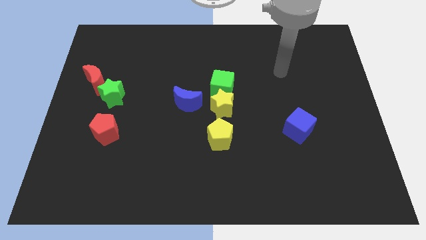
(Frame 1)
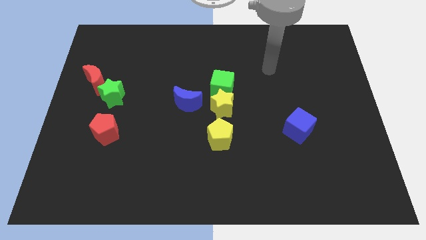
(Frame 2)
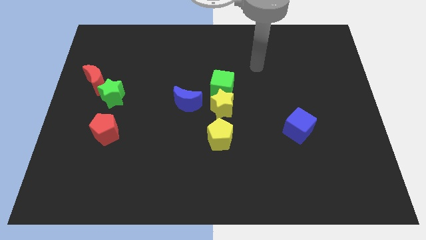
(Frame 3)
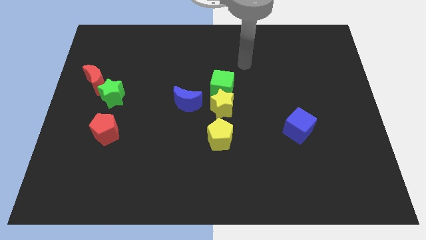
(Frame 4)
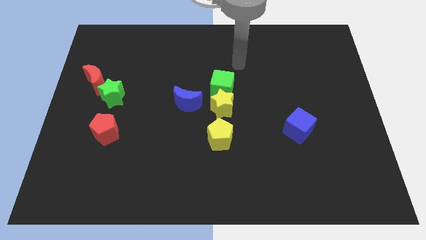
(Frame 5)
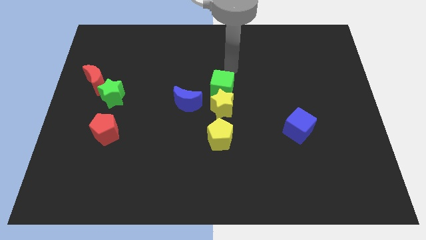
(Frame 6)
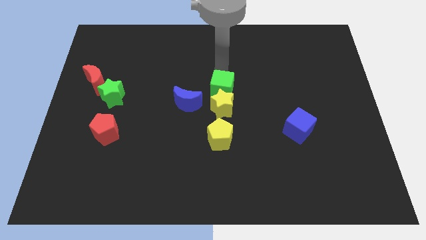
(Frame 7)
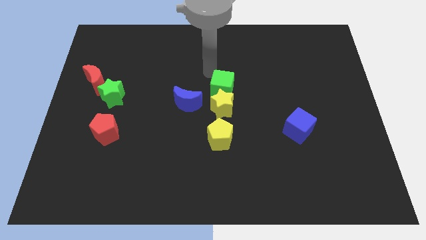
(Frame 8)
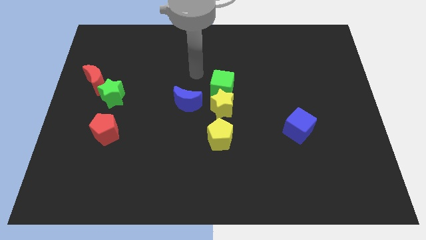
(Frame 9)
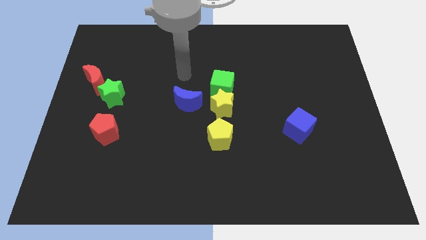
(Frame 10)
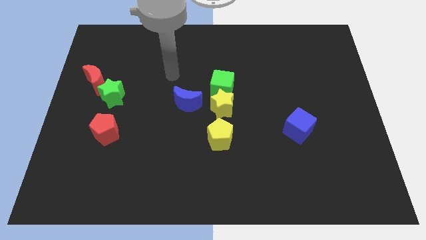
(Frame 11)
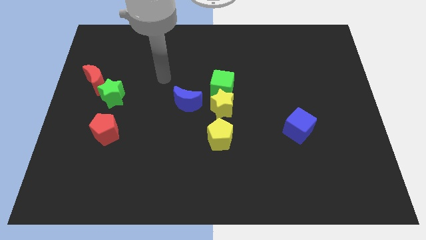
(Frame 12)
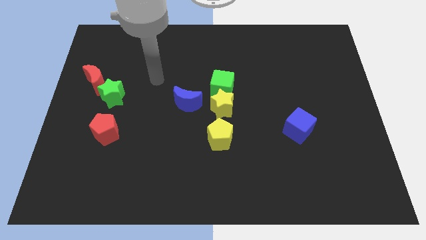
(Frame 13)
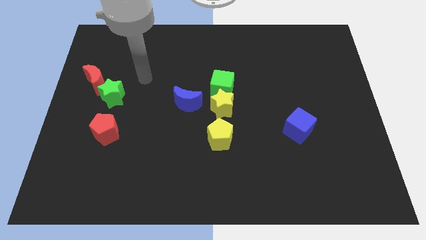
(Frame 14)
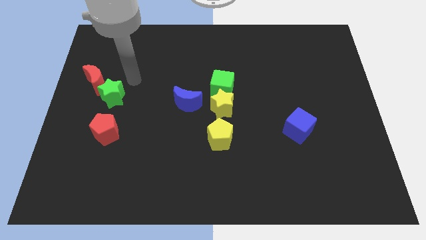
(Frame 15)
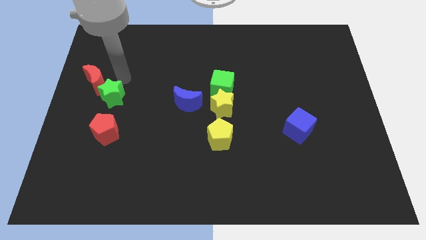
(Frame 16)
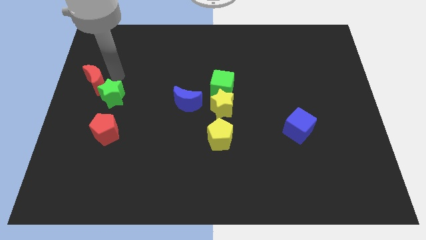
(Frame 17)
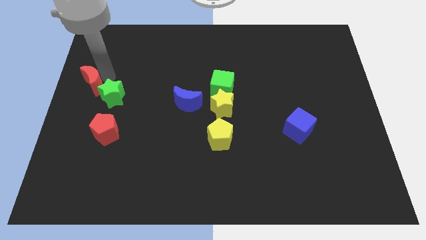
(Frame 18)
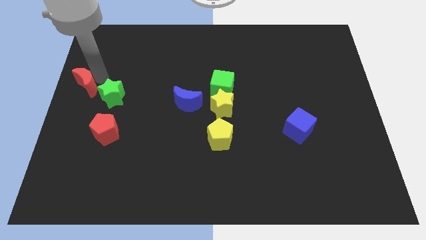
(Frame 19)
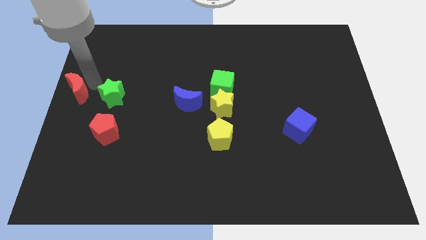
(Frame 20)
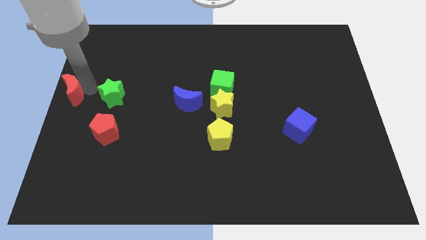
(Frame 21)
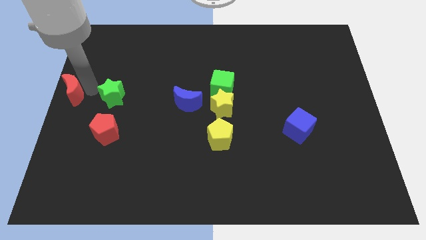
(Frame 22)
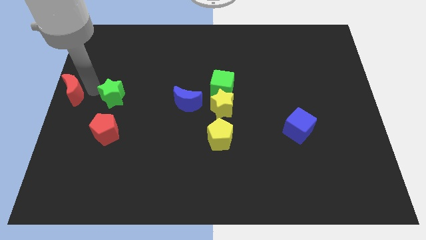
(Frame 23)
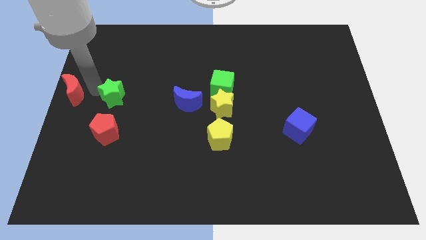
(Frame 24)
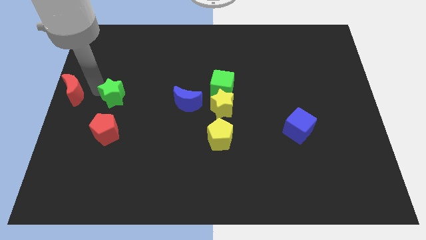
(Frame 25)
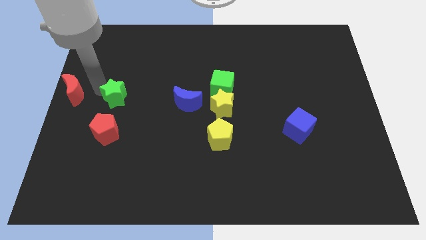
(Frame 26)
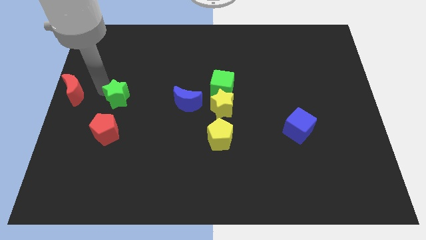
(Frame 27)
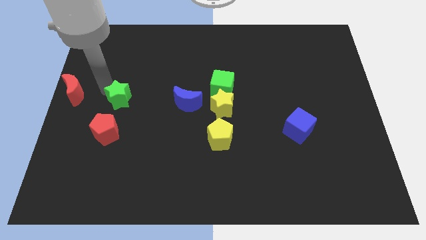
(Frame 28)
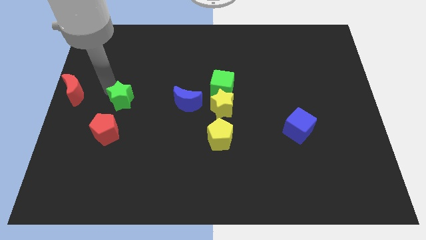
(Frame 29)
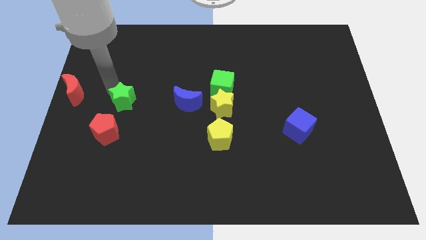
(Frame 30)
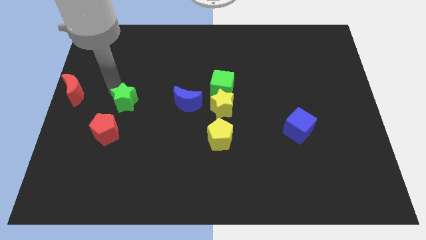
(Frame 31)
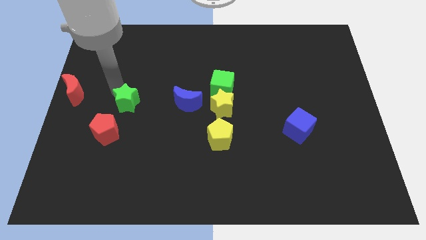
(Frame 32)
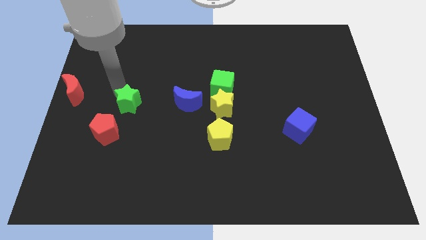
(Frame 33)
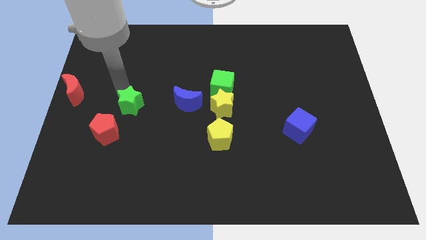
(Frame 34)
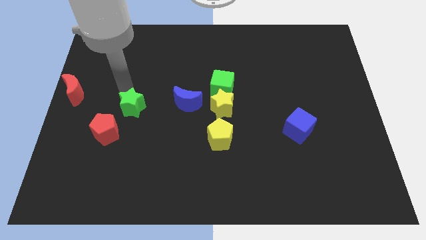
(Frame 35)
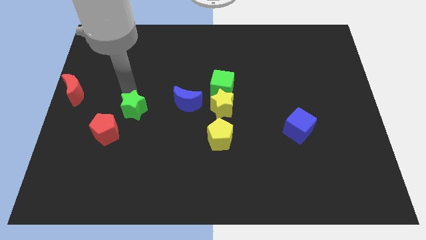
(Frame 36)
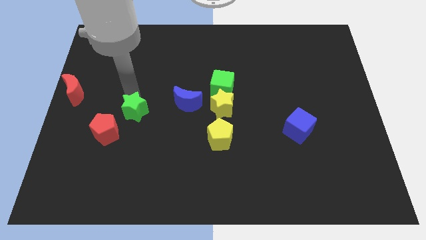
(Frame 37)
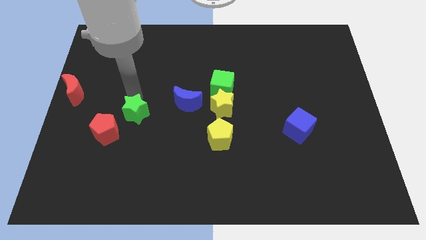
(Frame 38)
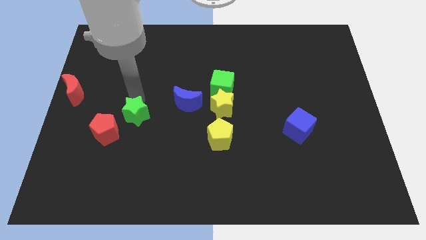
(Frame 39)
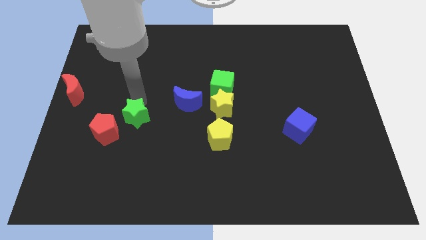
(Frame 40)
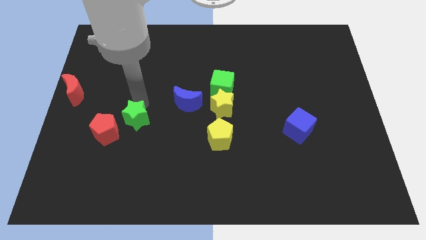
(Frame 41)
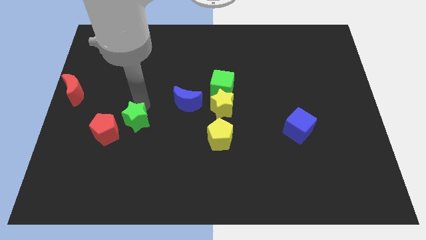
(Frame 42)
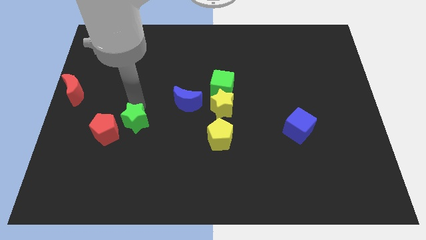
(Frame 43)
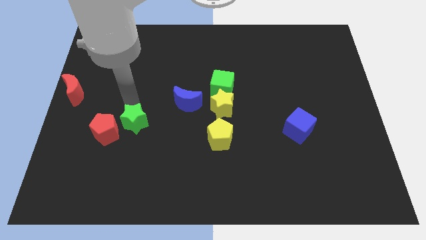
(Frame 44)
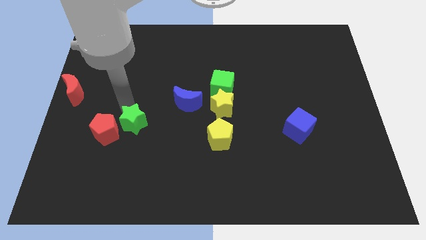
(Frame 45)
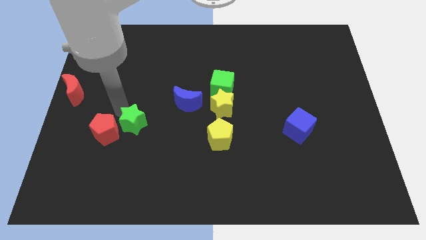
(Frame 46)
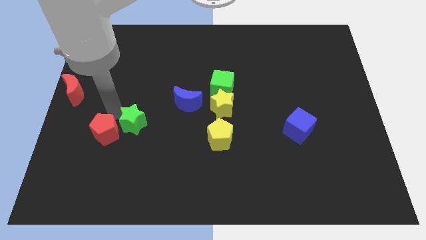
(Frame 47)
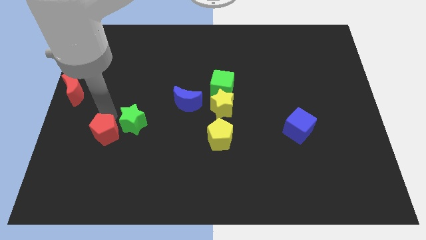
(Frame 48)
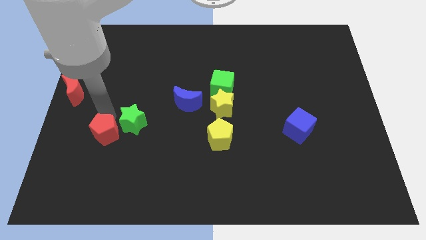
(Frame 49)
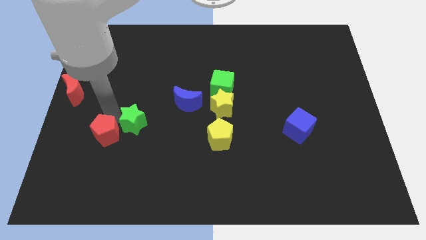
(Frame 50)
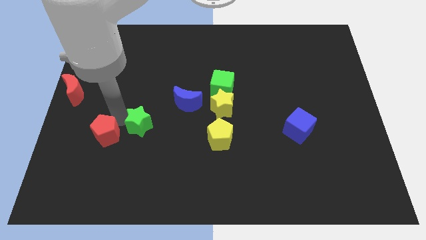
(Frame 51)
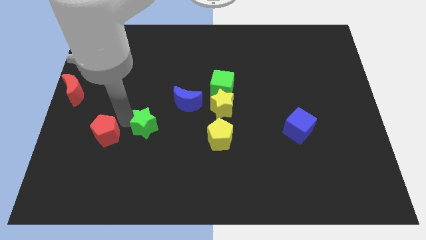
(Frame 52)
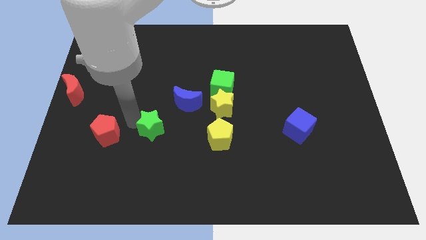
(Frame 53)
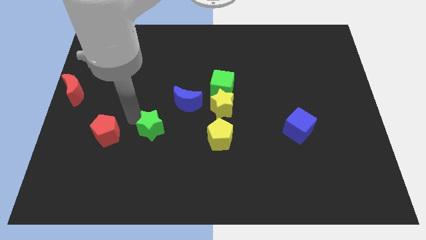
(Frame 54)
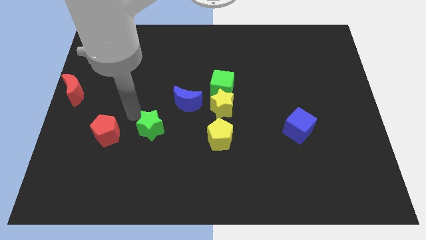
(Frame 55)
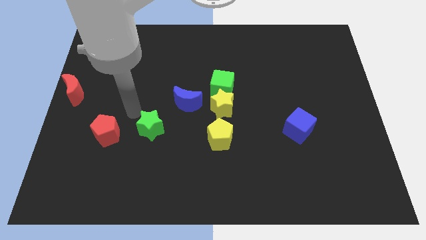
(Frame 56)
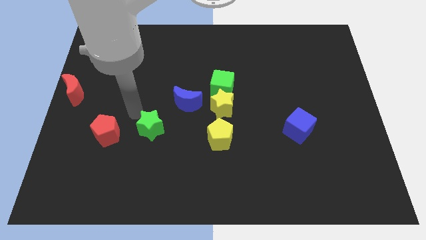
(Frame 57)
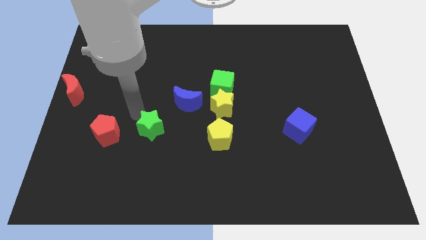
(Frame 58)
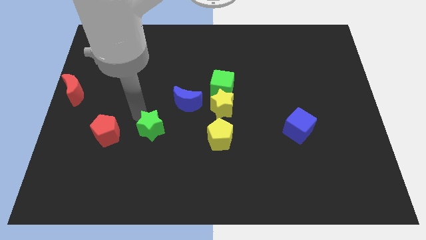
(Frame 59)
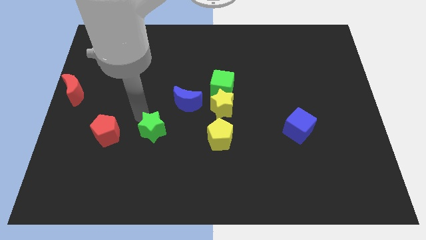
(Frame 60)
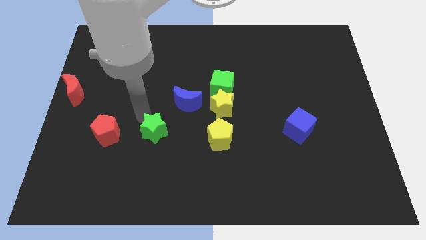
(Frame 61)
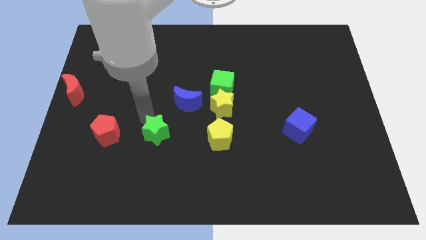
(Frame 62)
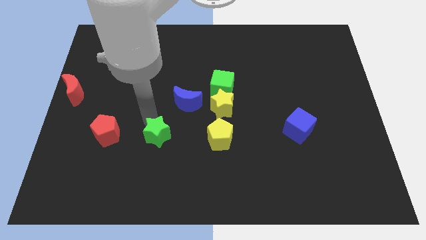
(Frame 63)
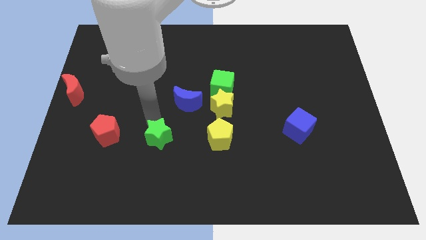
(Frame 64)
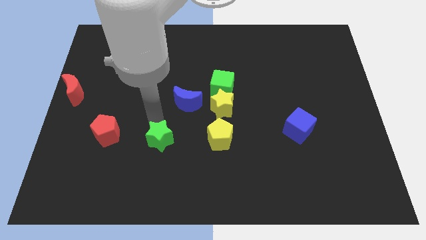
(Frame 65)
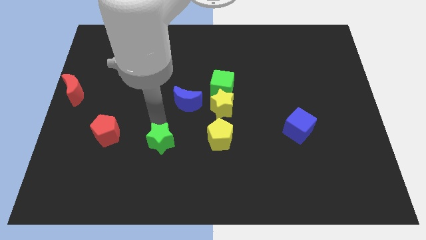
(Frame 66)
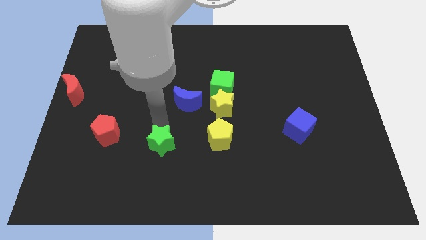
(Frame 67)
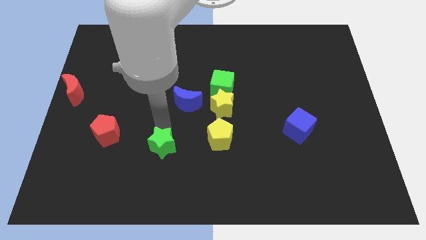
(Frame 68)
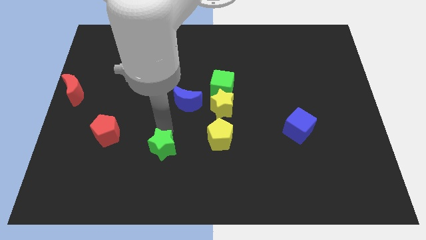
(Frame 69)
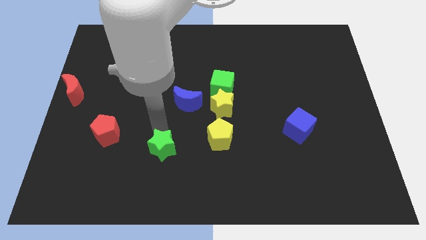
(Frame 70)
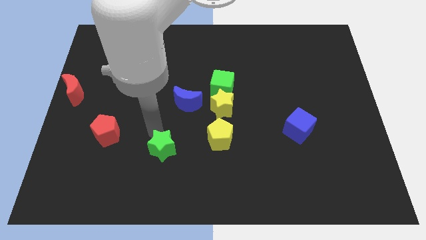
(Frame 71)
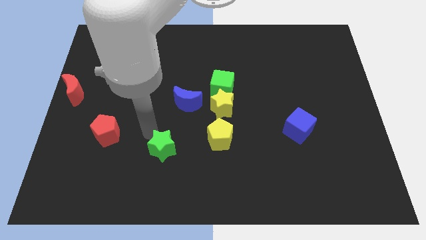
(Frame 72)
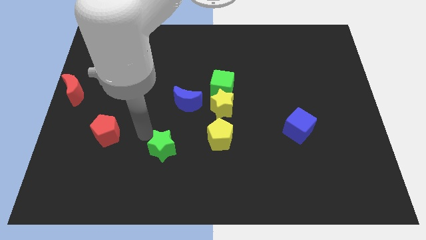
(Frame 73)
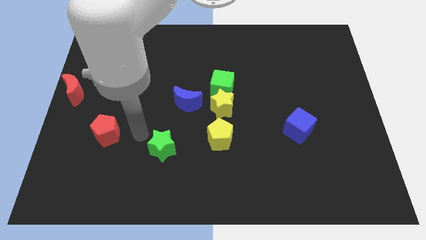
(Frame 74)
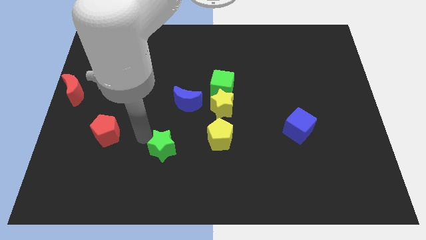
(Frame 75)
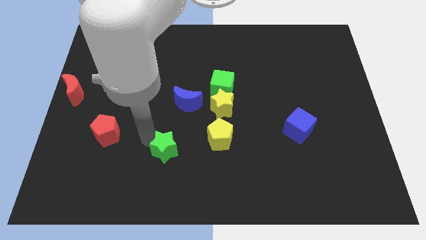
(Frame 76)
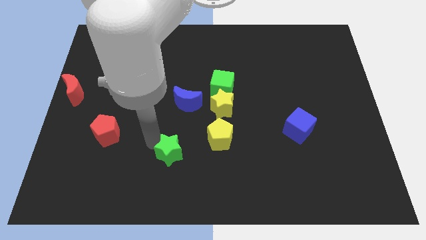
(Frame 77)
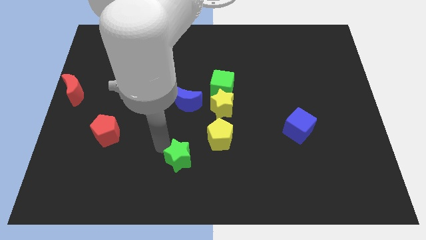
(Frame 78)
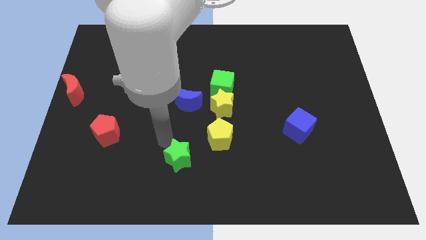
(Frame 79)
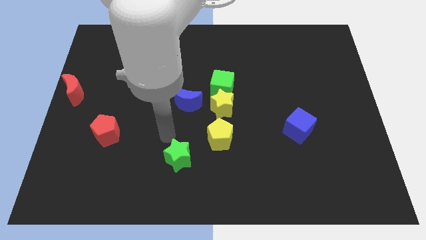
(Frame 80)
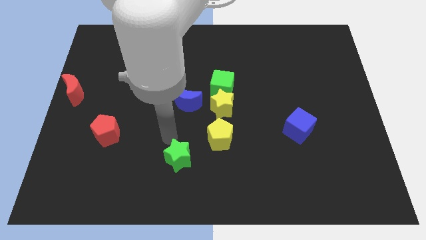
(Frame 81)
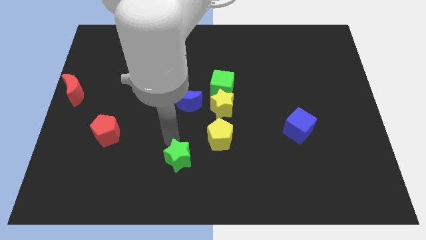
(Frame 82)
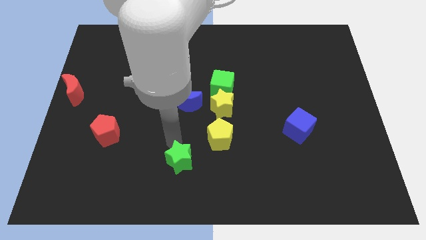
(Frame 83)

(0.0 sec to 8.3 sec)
push the green star to the bottom
